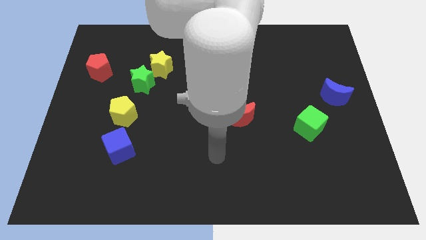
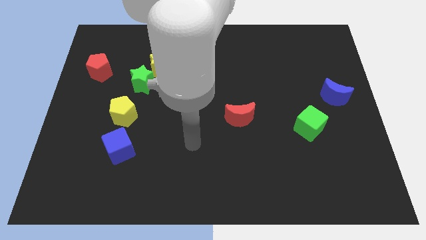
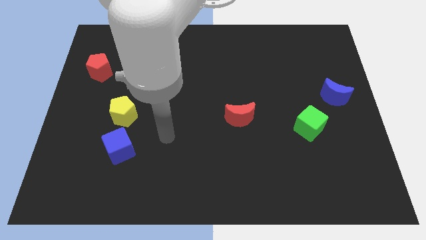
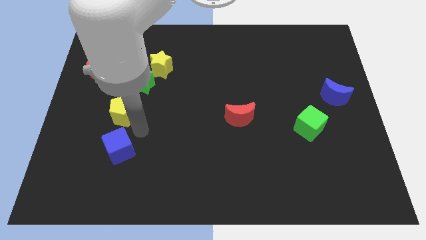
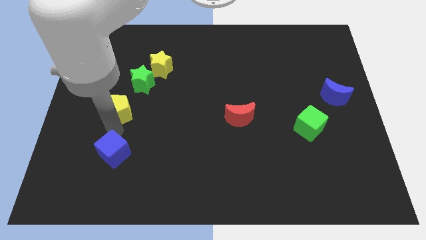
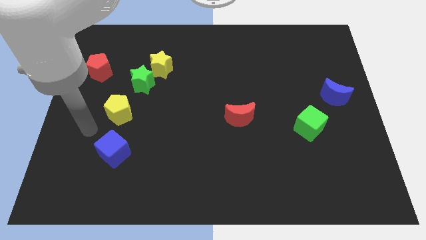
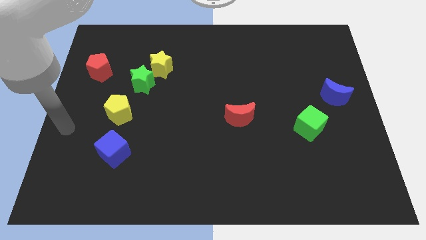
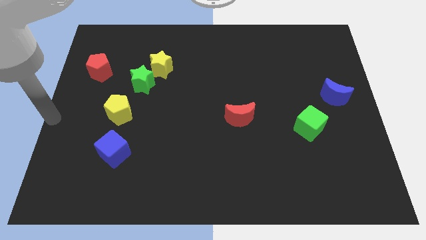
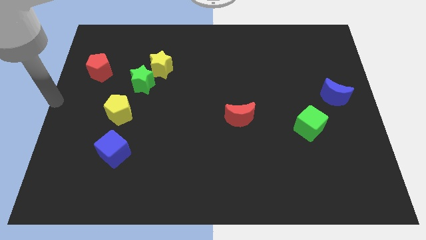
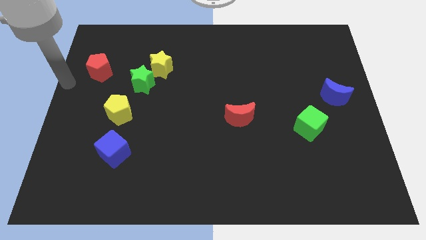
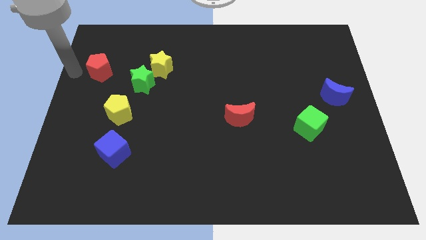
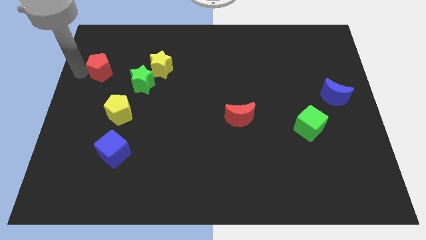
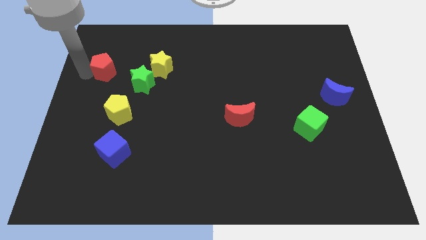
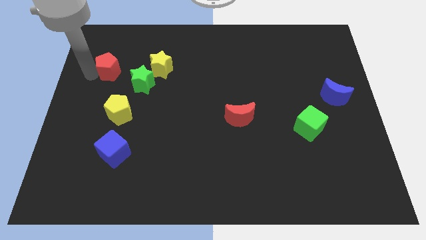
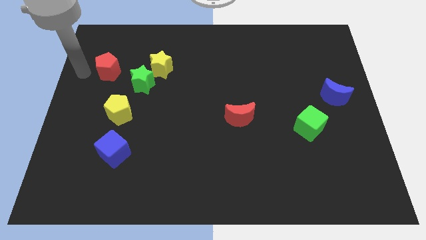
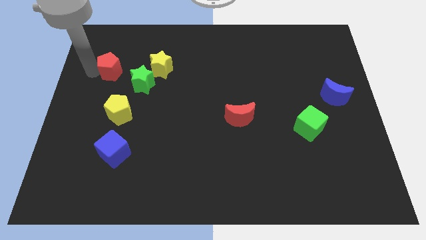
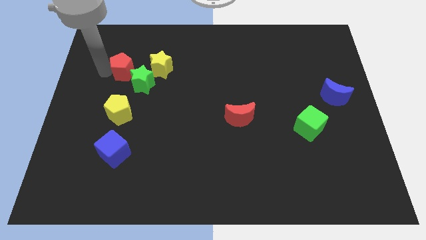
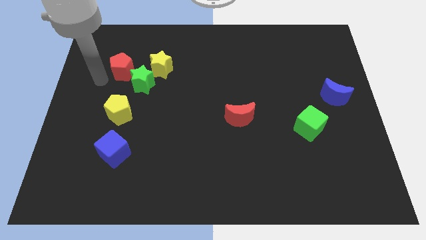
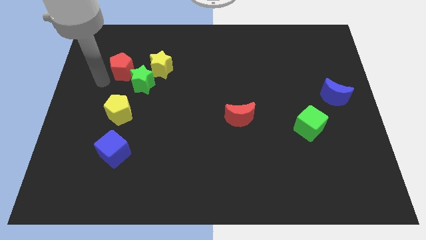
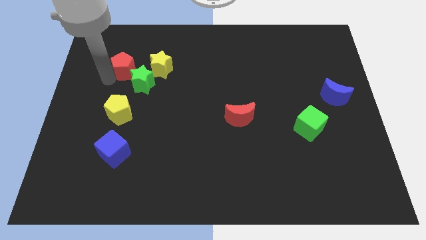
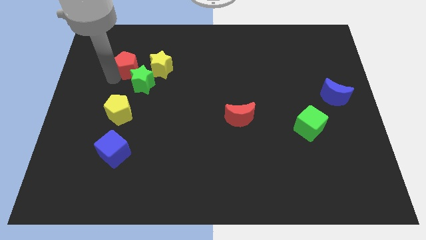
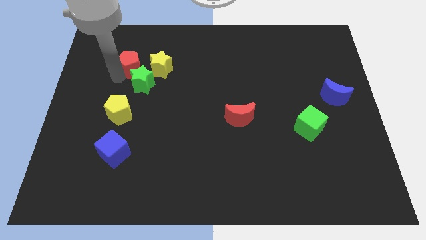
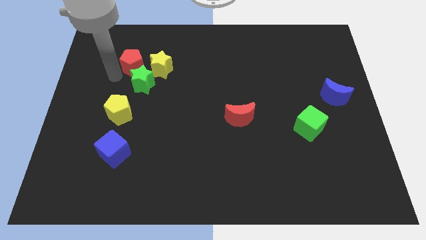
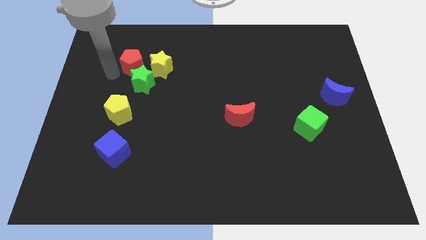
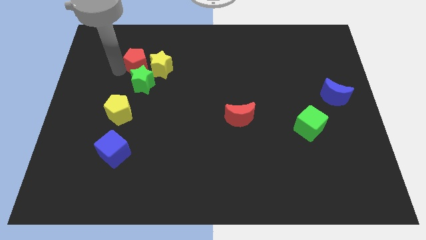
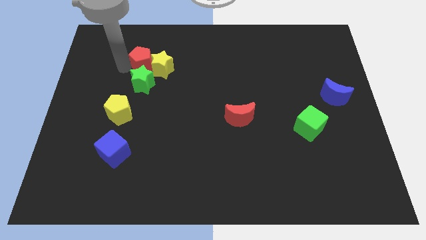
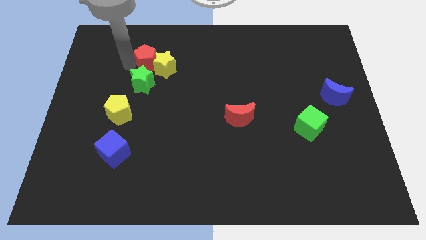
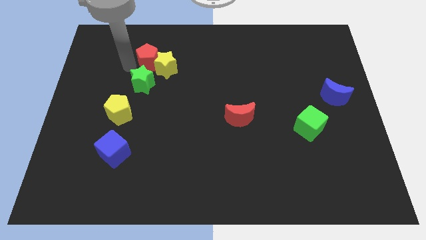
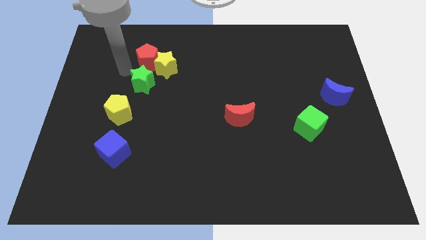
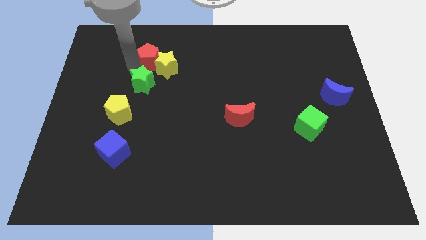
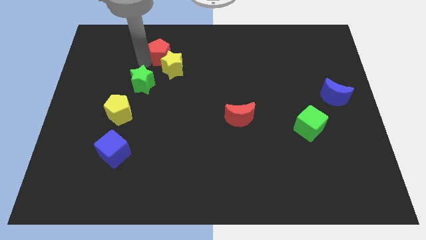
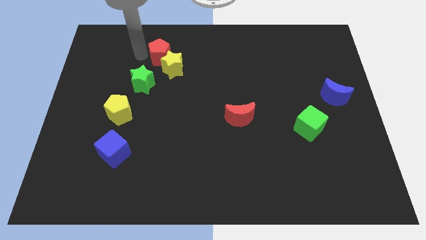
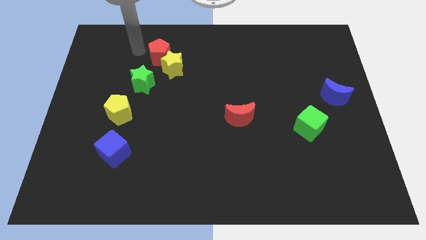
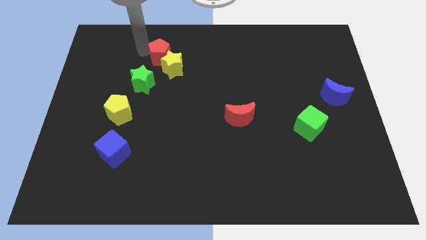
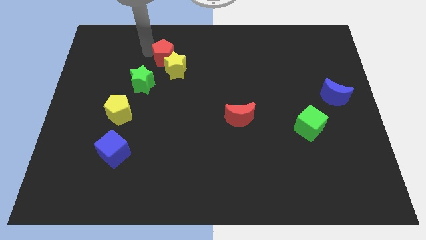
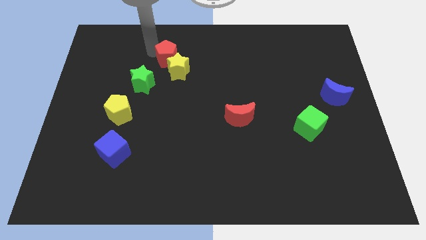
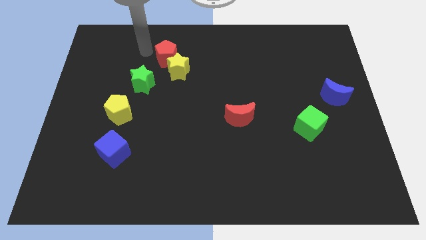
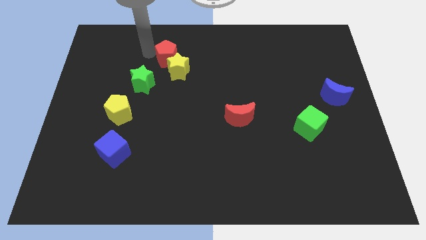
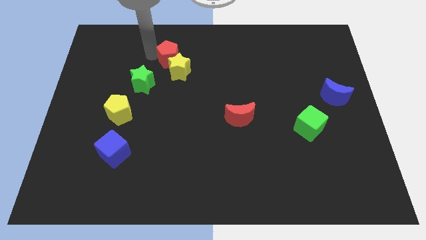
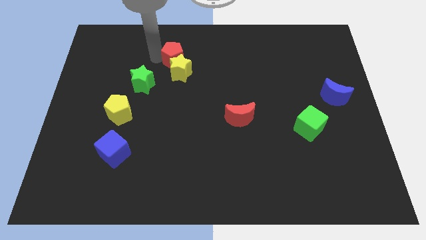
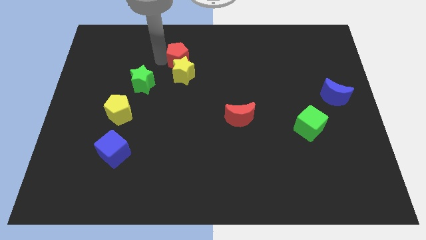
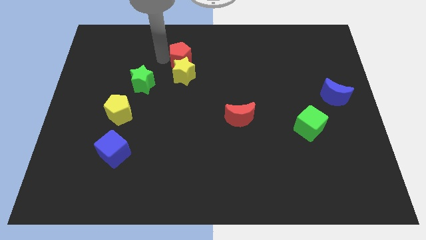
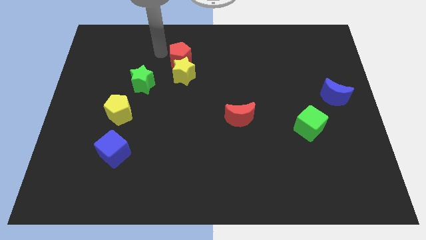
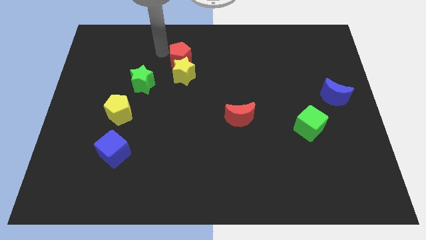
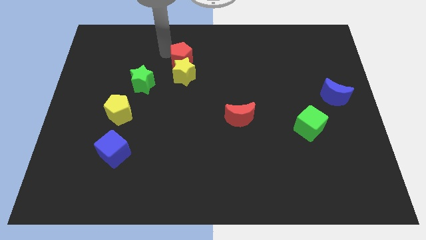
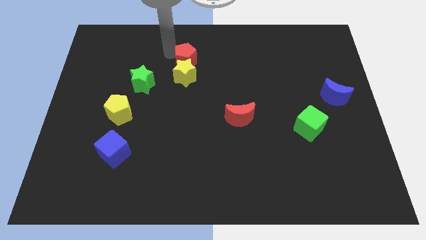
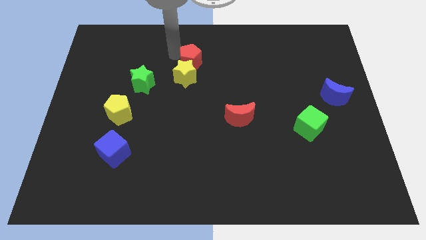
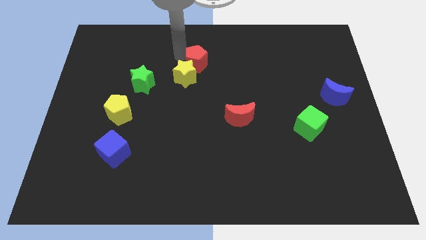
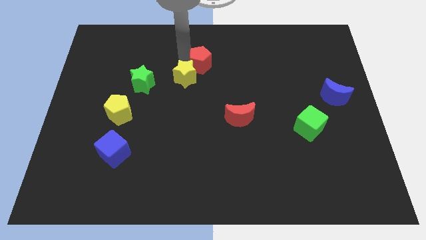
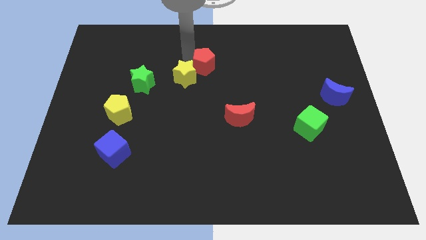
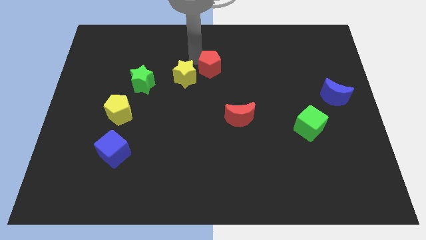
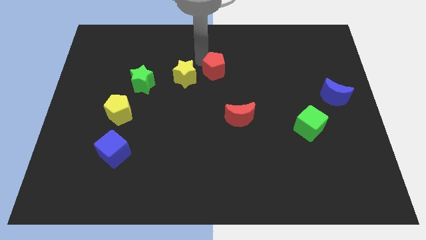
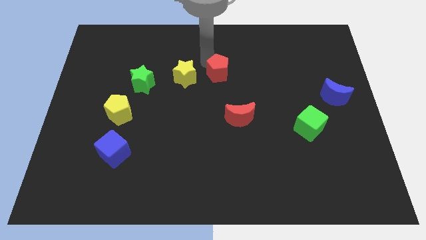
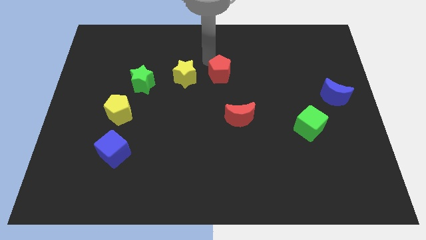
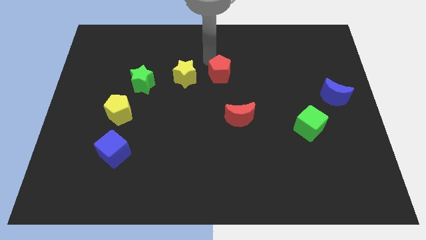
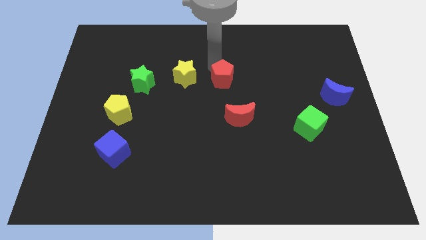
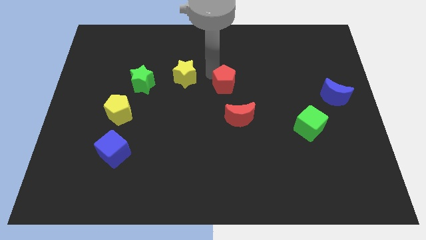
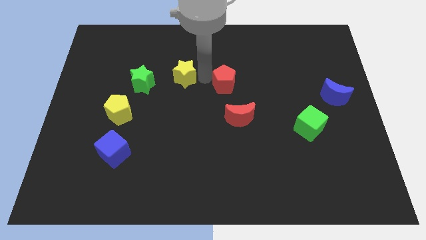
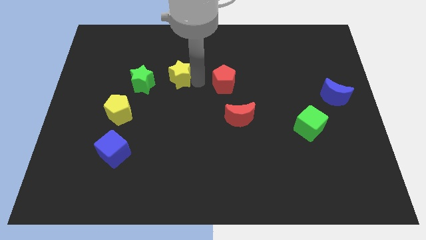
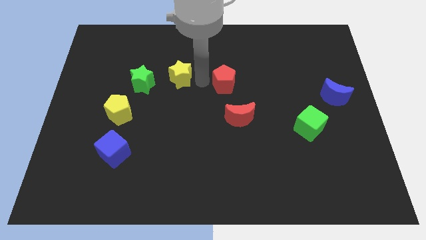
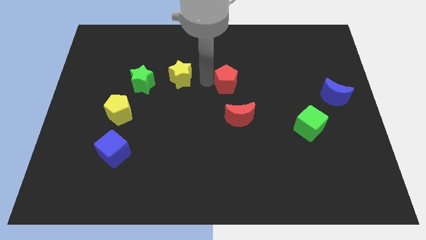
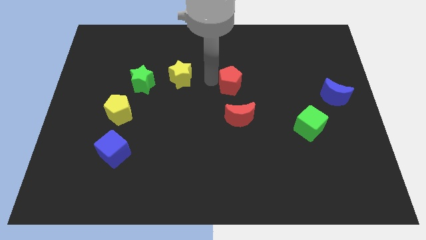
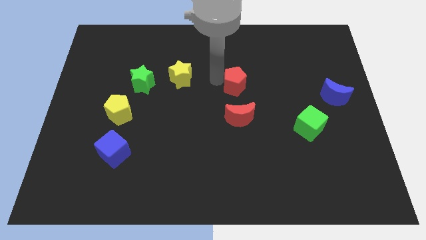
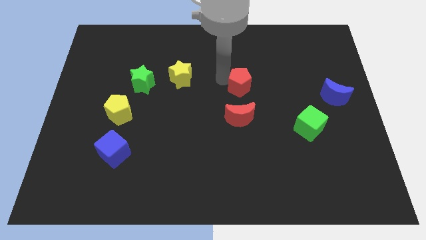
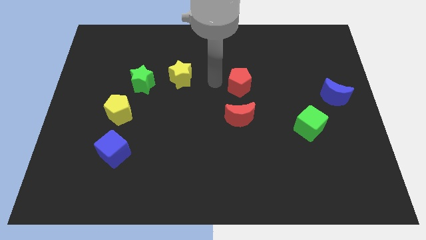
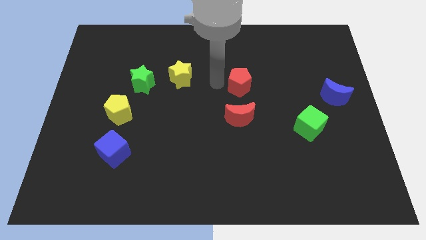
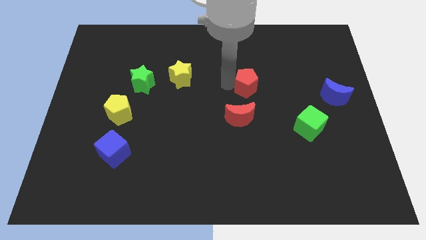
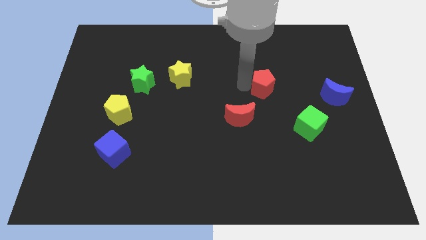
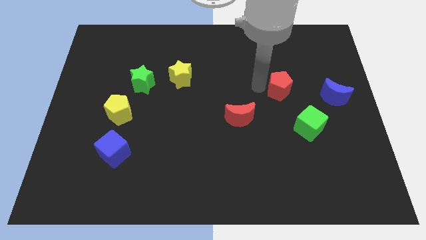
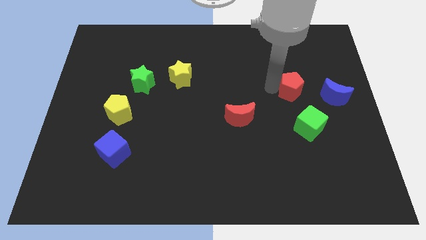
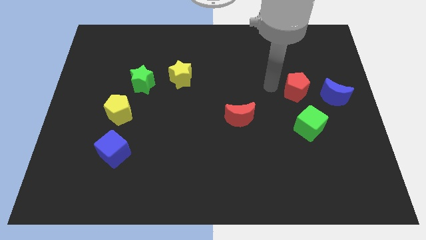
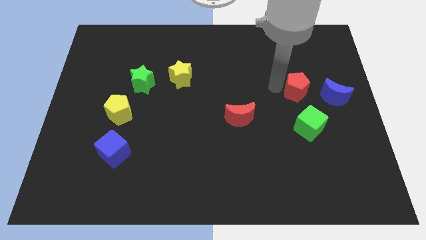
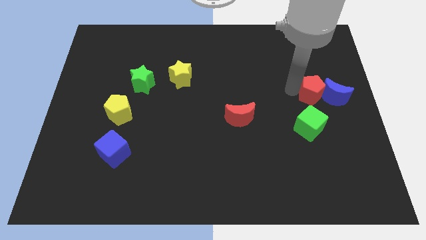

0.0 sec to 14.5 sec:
put the red pentagon next to the blue moon
